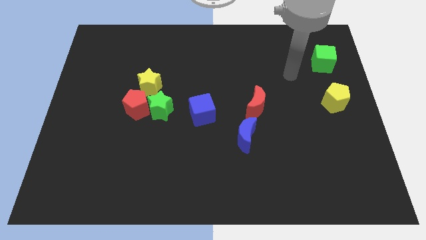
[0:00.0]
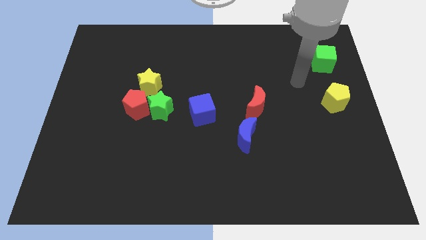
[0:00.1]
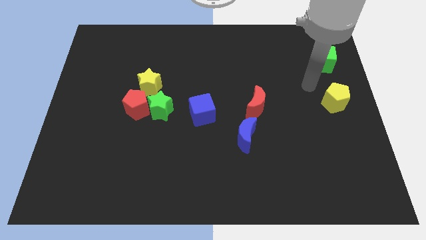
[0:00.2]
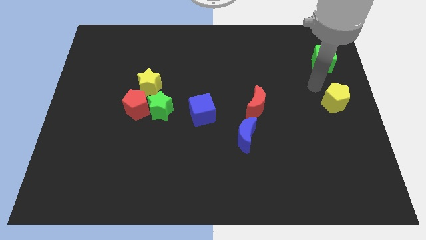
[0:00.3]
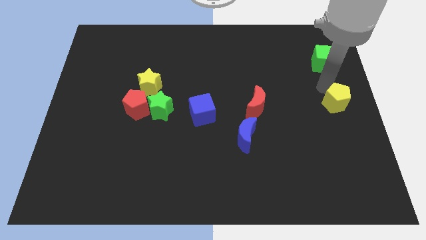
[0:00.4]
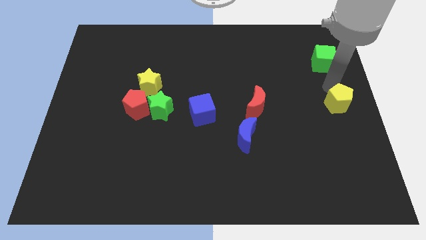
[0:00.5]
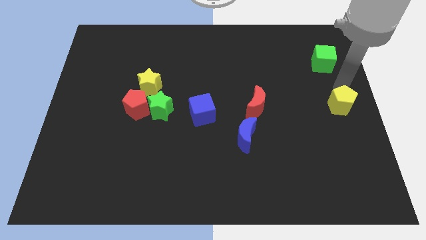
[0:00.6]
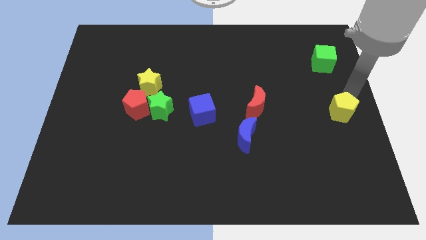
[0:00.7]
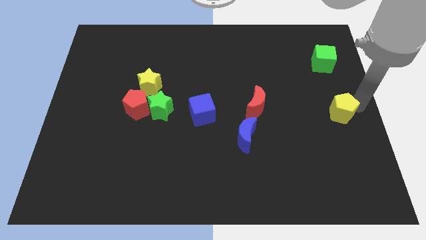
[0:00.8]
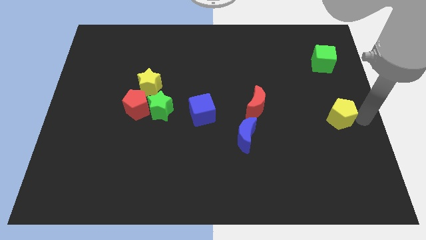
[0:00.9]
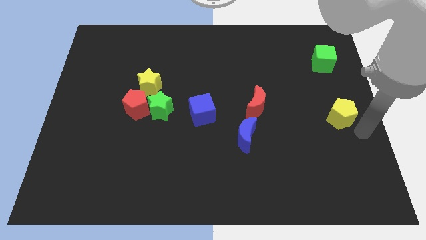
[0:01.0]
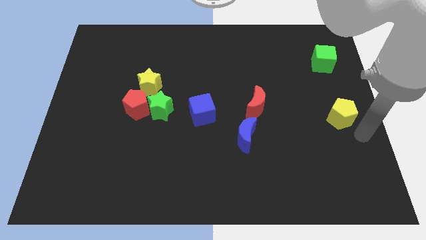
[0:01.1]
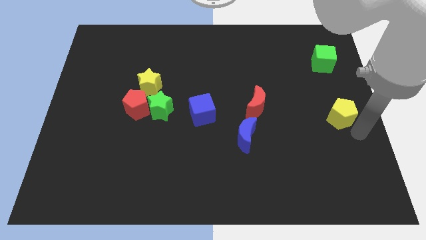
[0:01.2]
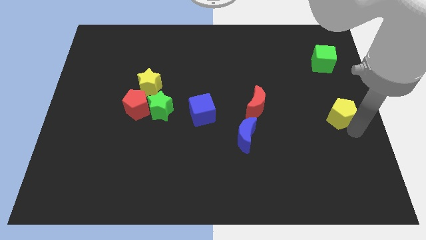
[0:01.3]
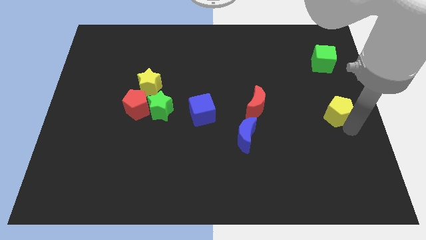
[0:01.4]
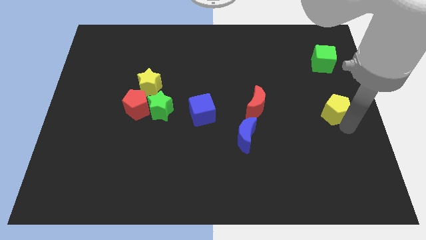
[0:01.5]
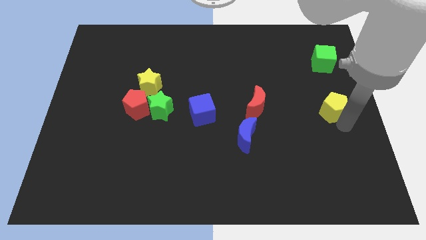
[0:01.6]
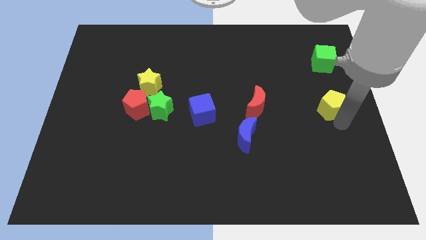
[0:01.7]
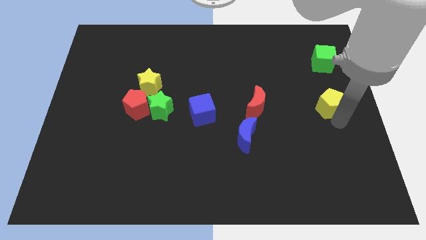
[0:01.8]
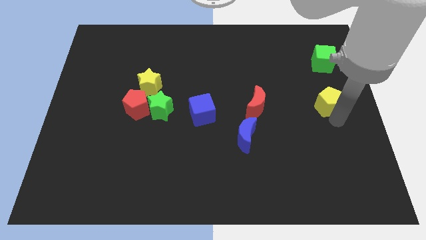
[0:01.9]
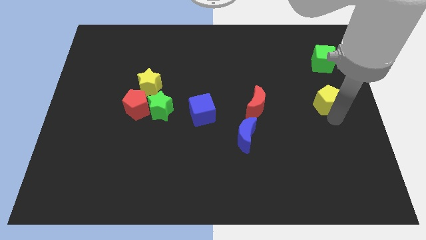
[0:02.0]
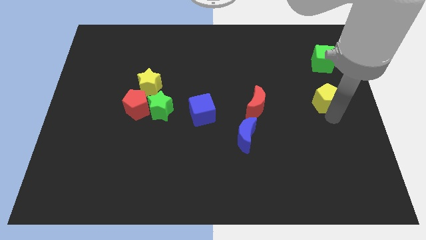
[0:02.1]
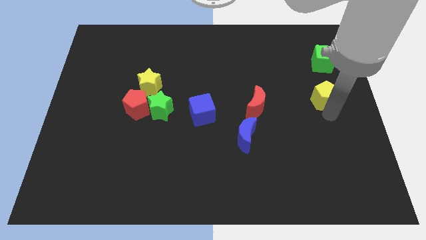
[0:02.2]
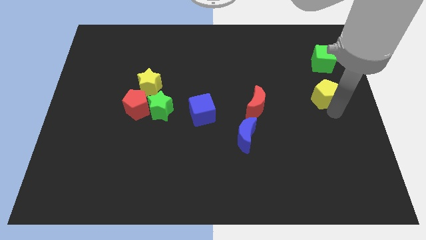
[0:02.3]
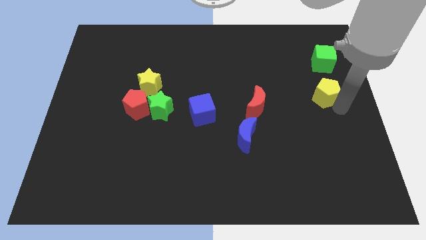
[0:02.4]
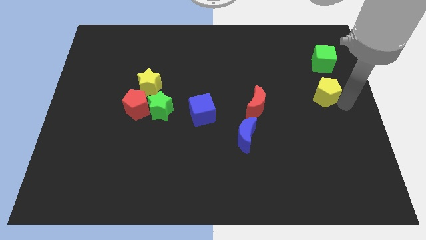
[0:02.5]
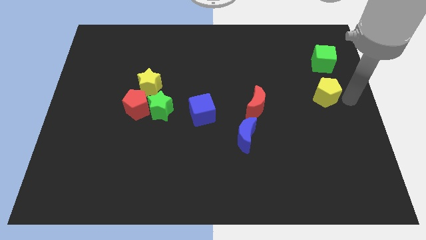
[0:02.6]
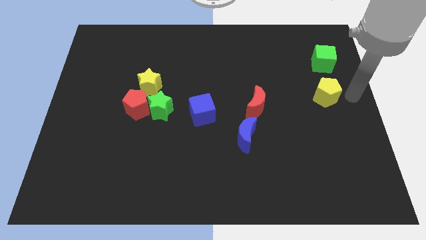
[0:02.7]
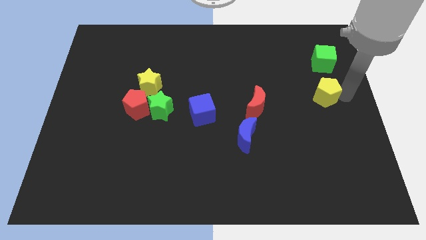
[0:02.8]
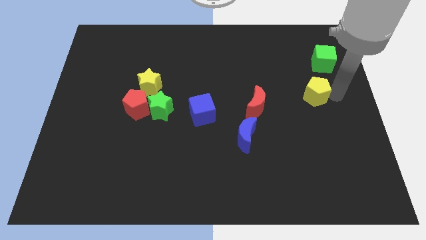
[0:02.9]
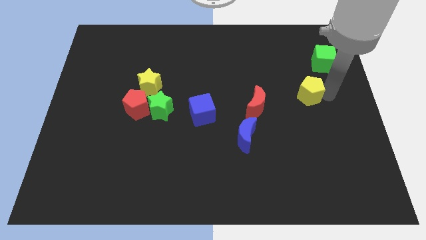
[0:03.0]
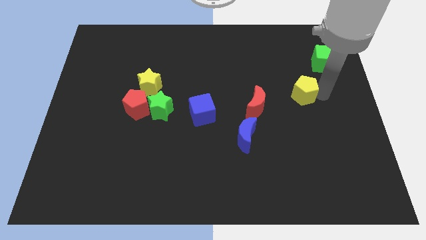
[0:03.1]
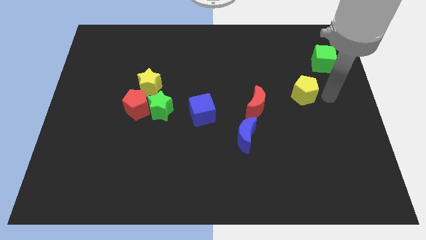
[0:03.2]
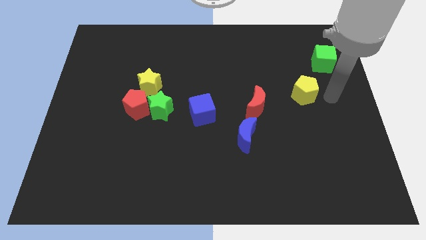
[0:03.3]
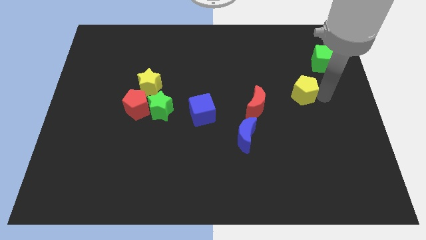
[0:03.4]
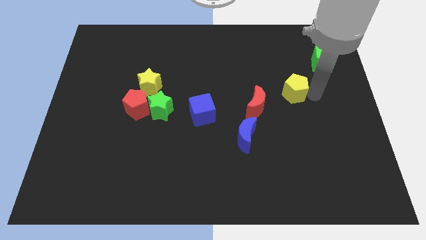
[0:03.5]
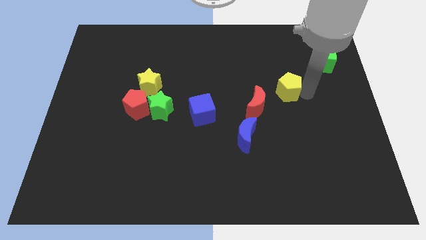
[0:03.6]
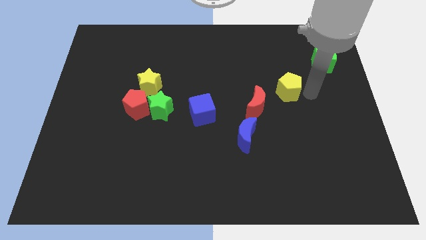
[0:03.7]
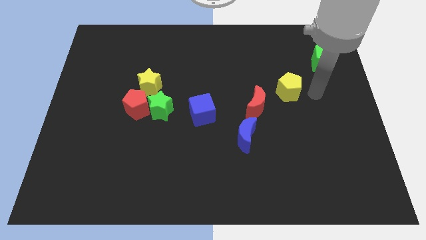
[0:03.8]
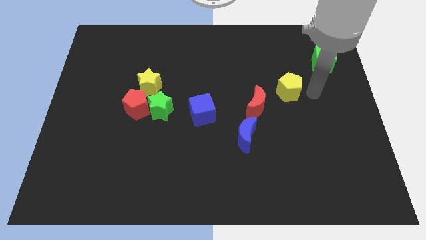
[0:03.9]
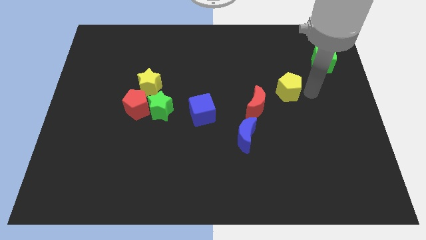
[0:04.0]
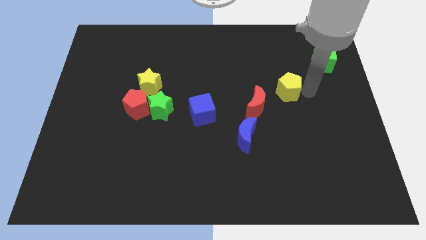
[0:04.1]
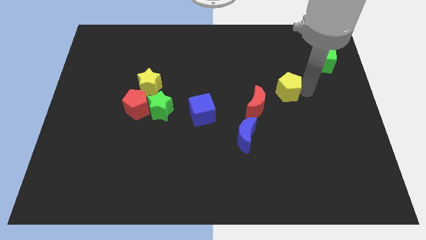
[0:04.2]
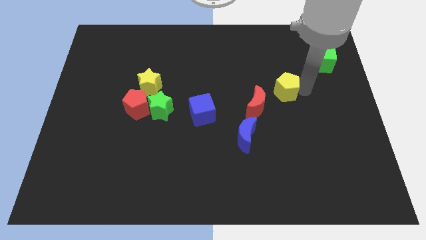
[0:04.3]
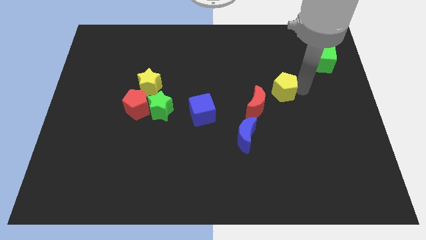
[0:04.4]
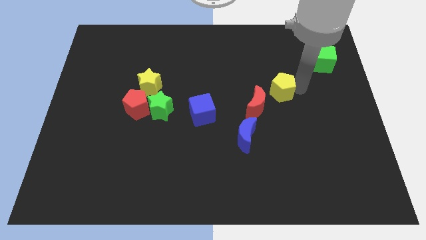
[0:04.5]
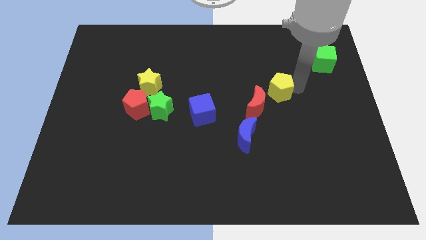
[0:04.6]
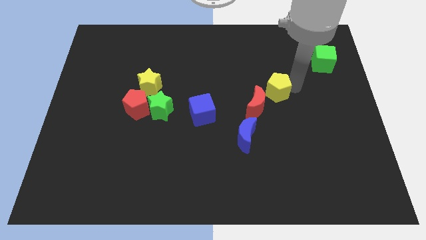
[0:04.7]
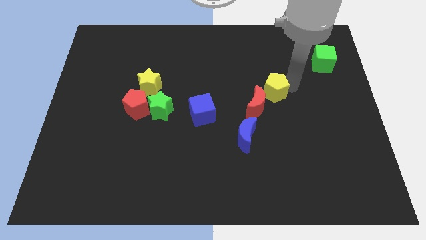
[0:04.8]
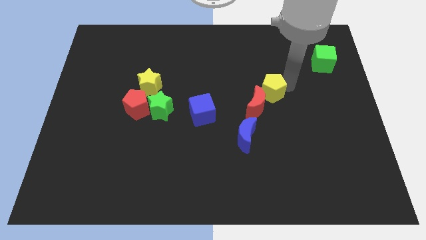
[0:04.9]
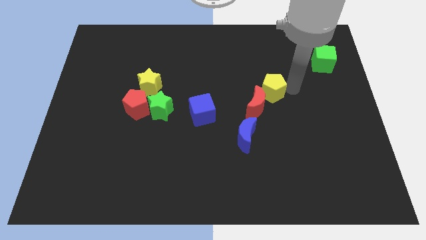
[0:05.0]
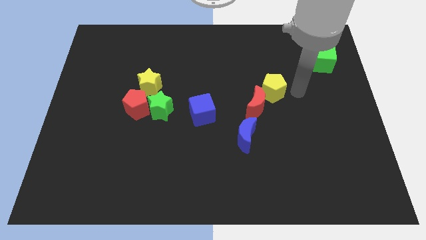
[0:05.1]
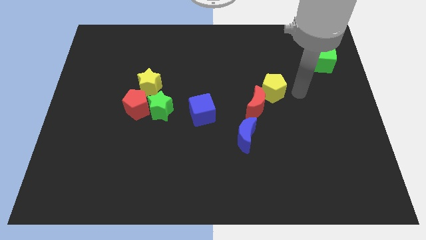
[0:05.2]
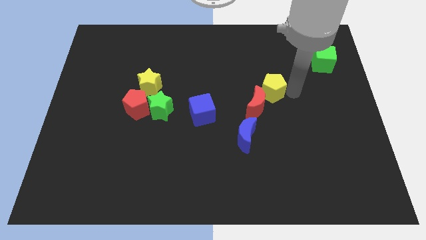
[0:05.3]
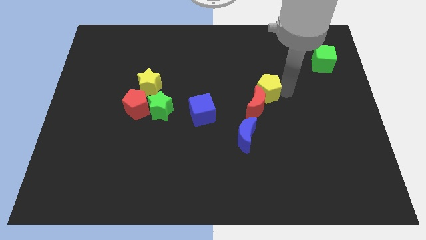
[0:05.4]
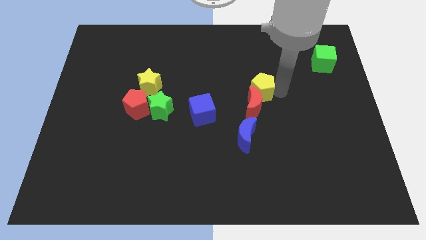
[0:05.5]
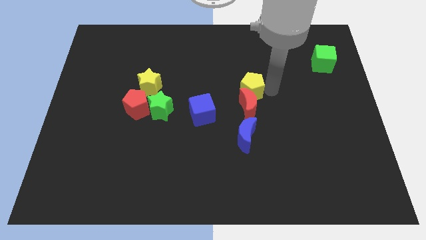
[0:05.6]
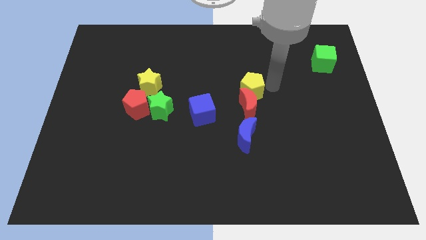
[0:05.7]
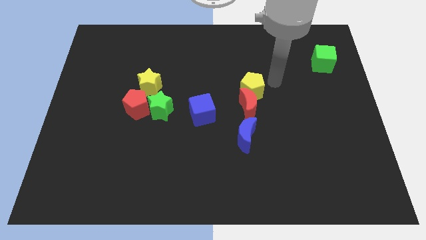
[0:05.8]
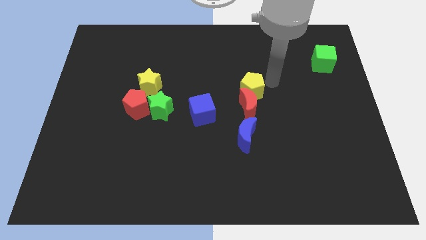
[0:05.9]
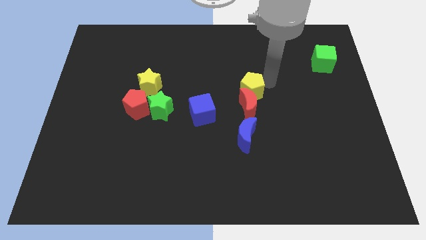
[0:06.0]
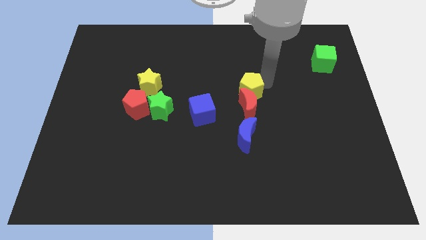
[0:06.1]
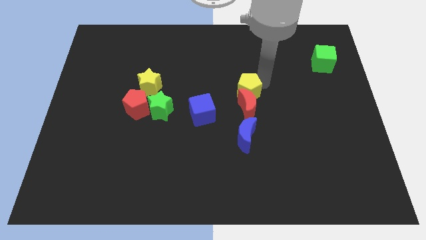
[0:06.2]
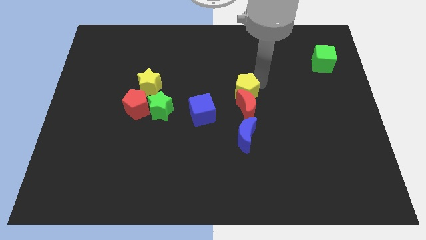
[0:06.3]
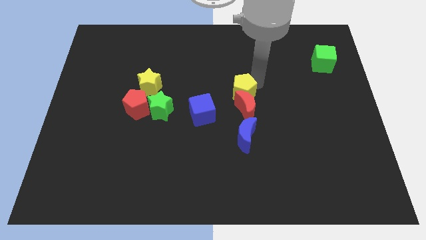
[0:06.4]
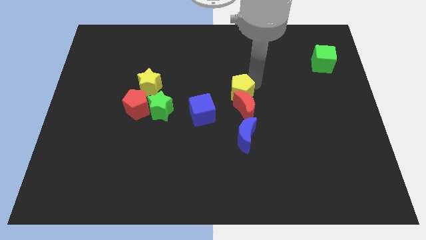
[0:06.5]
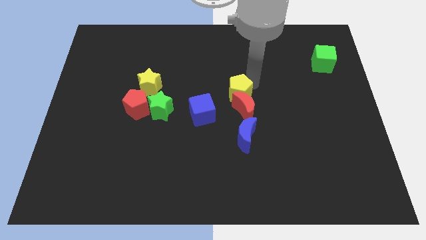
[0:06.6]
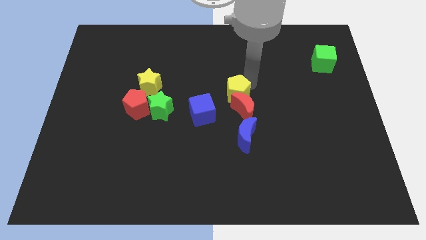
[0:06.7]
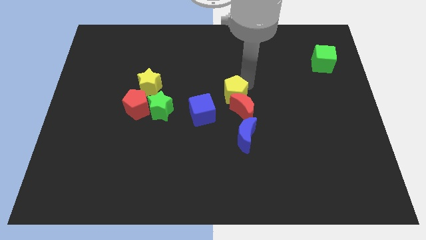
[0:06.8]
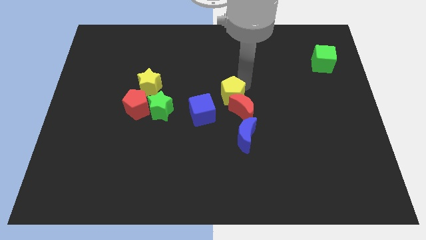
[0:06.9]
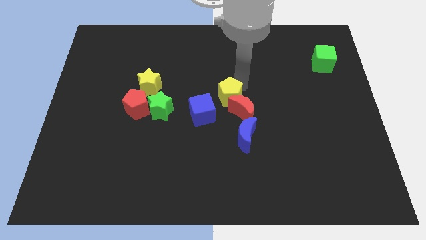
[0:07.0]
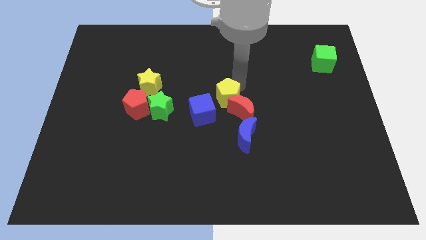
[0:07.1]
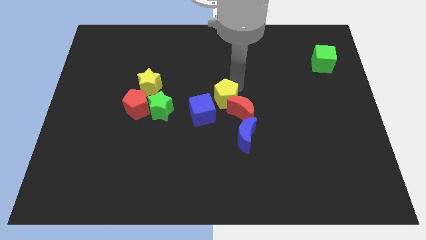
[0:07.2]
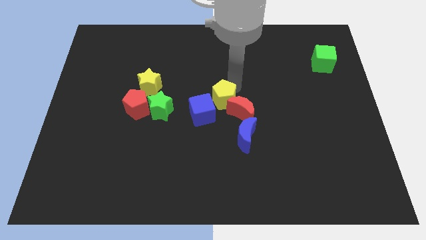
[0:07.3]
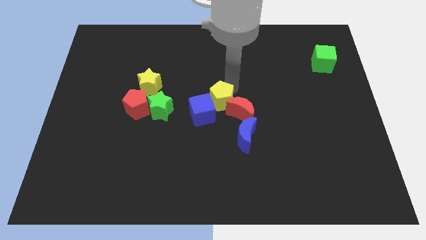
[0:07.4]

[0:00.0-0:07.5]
slide the yellow pentagon to the blue cube

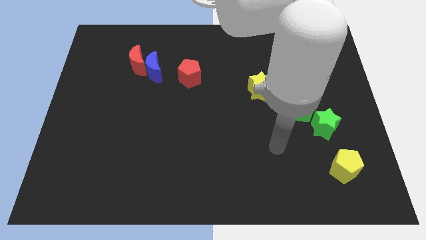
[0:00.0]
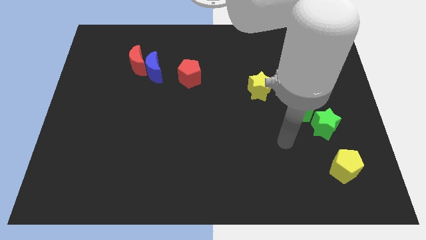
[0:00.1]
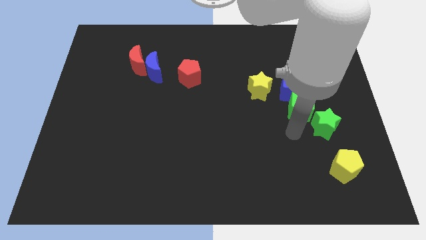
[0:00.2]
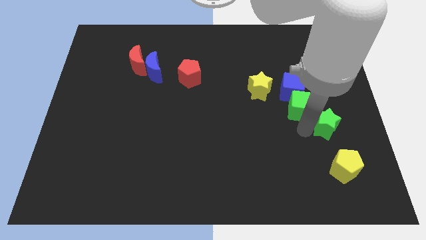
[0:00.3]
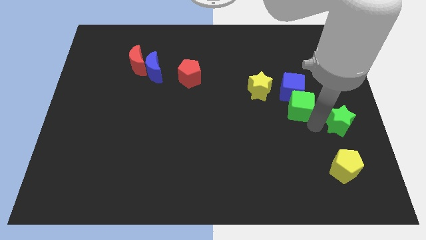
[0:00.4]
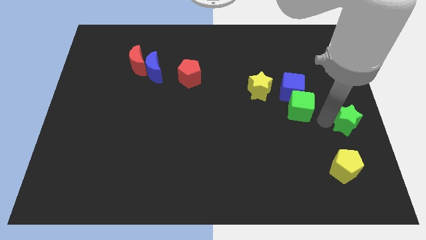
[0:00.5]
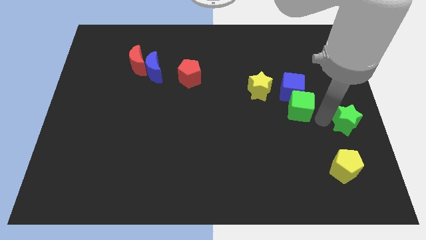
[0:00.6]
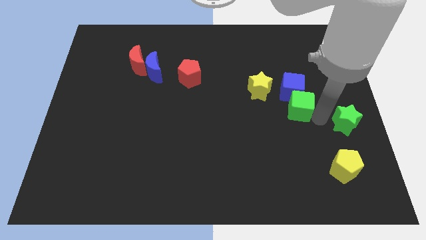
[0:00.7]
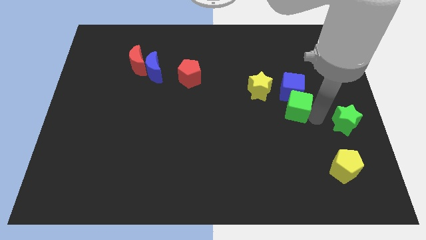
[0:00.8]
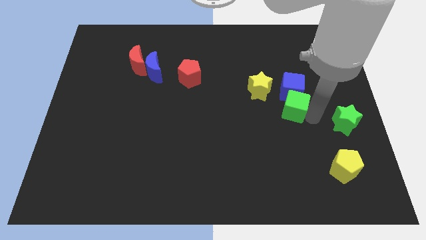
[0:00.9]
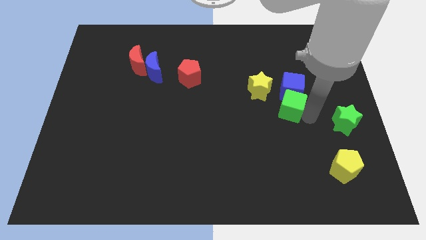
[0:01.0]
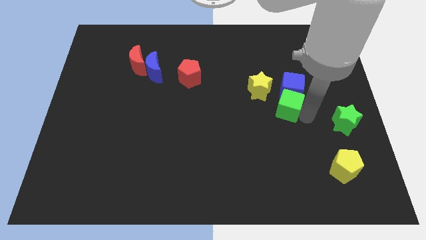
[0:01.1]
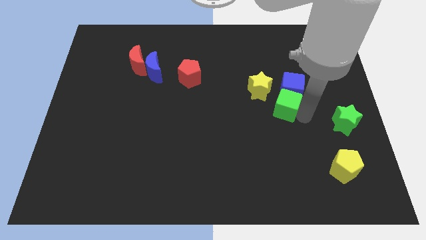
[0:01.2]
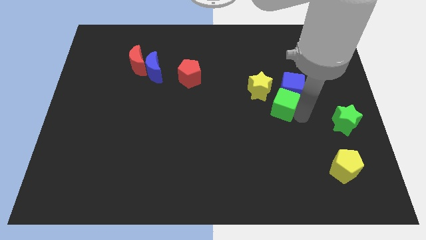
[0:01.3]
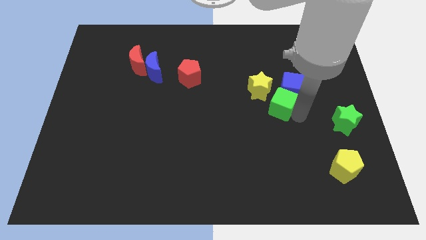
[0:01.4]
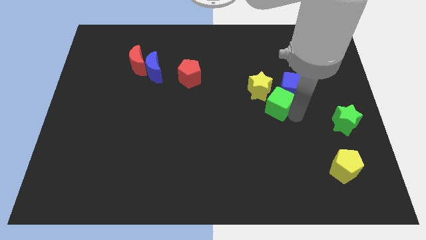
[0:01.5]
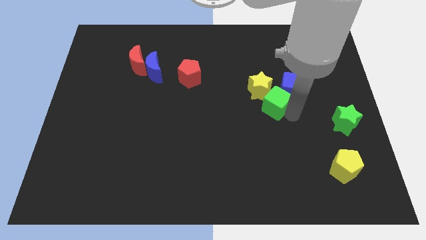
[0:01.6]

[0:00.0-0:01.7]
push the green cube to the yellow star
